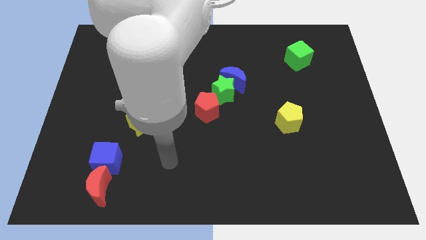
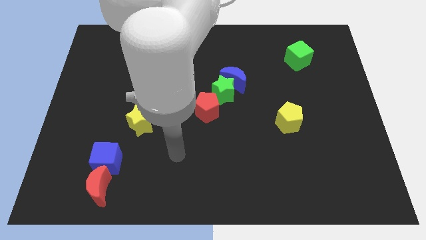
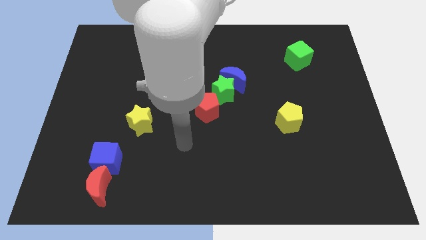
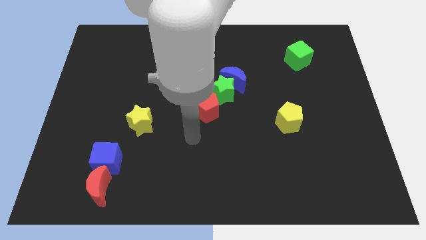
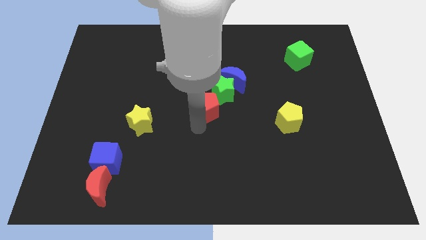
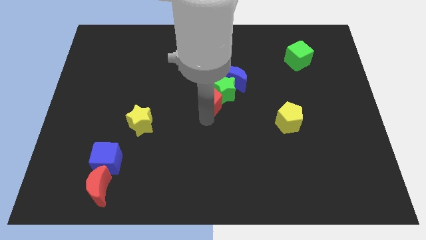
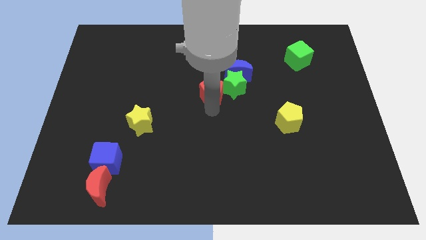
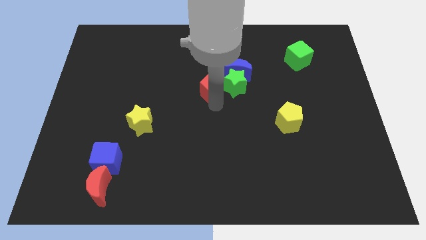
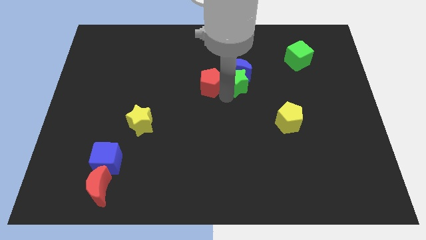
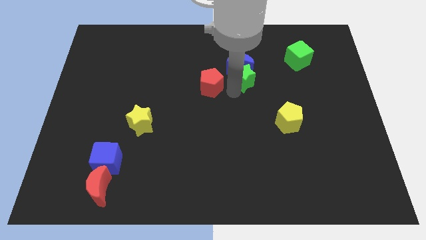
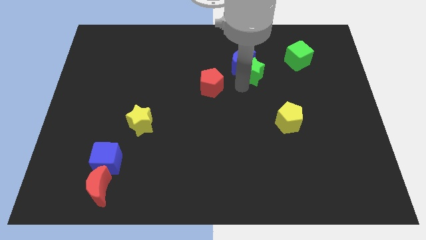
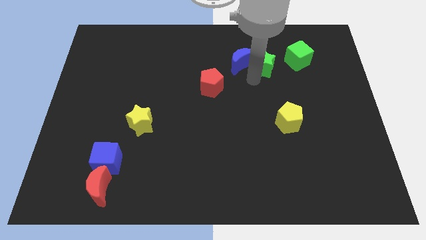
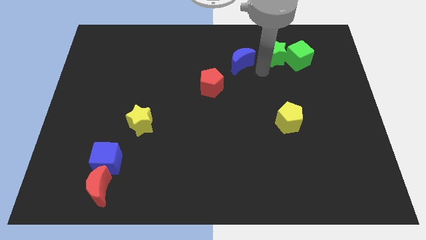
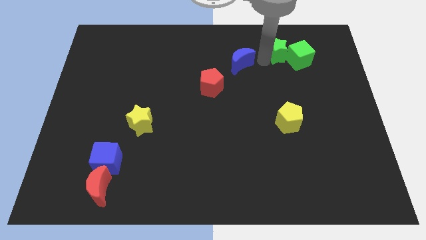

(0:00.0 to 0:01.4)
separate the blue moon from the green star

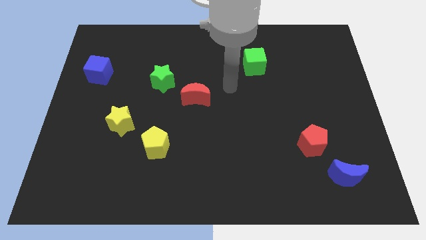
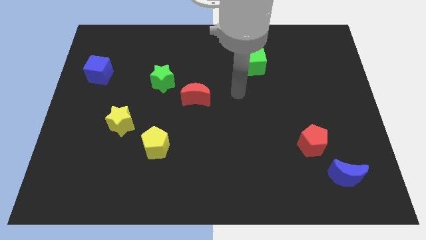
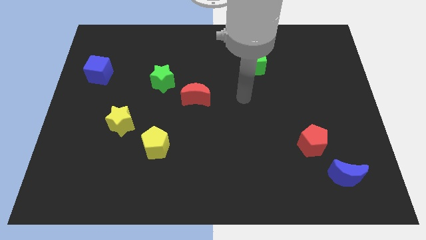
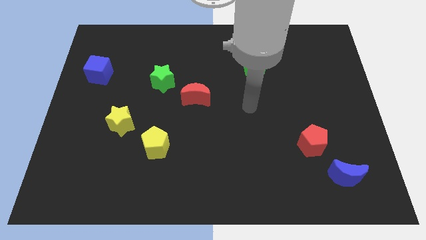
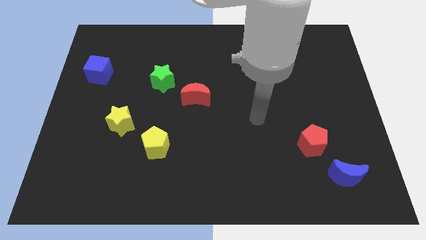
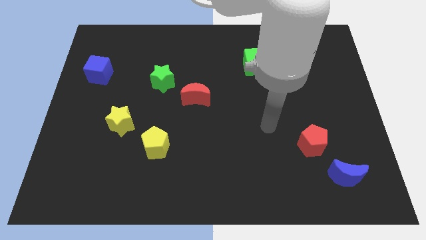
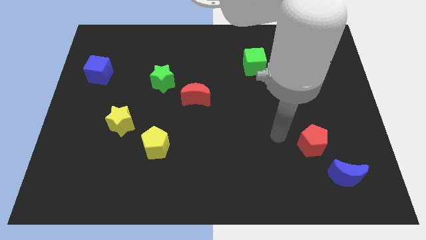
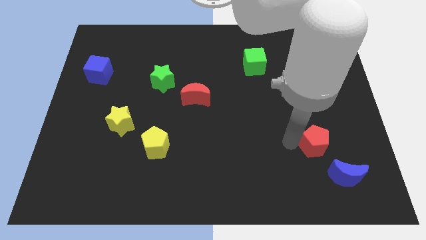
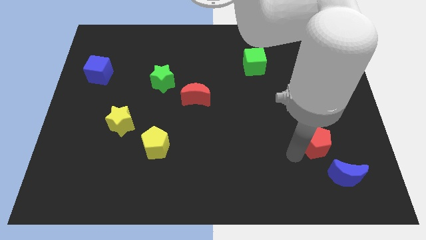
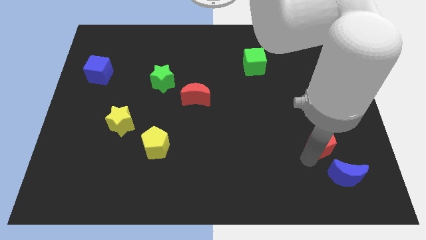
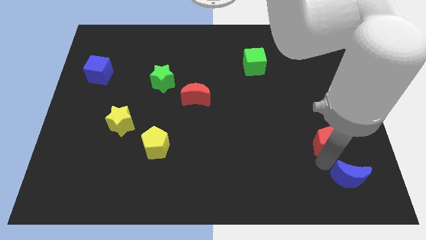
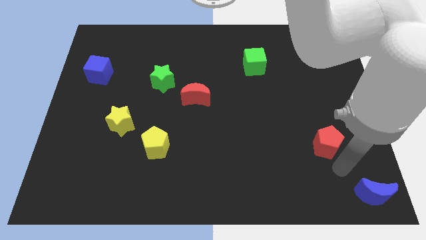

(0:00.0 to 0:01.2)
pull the red pentagon apart from the blue moon

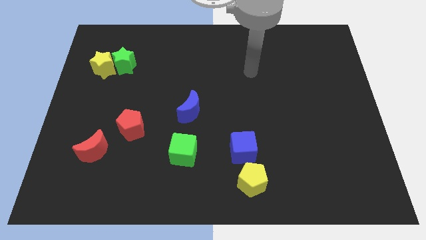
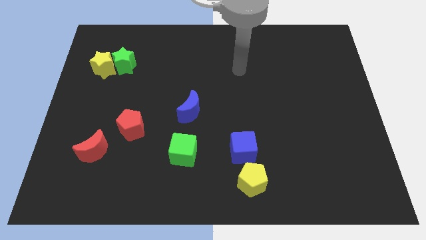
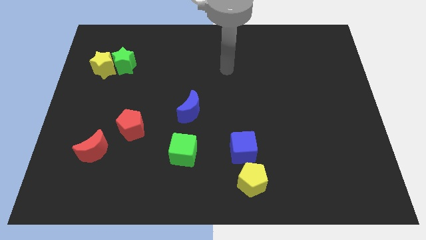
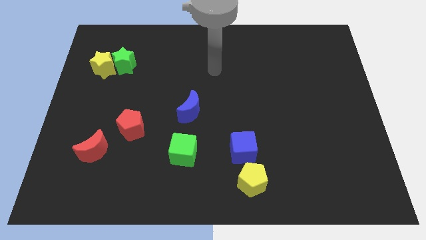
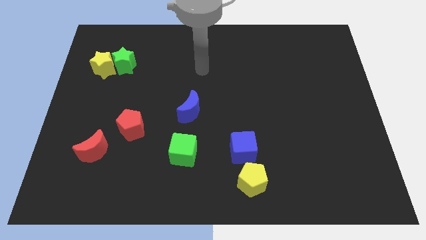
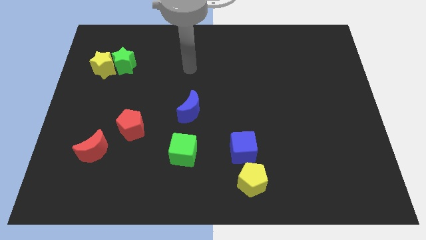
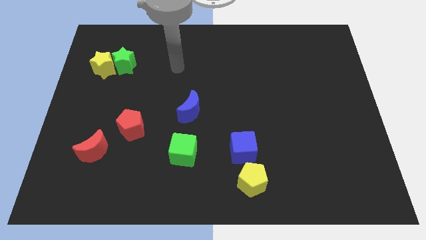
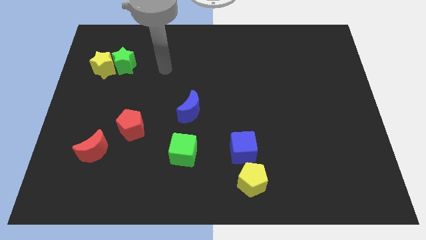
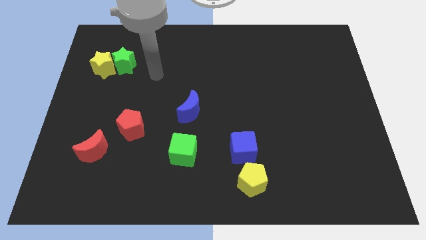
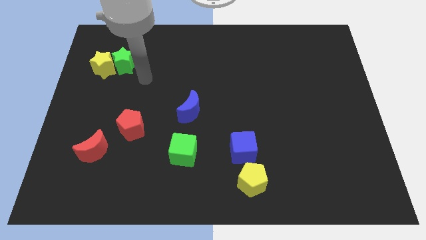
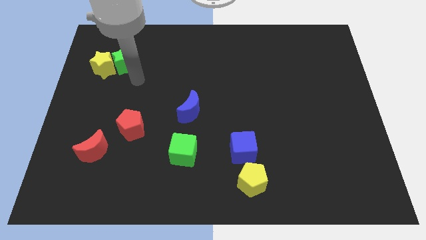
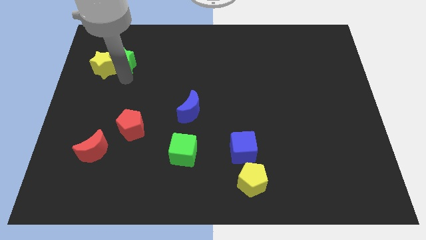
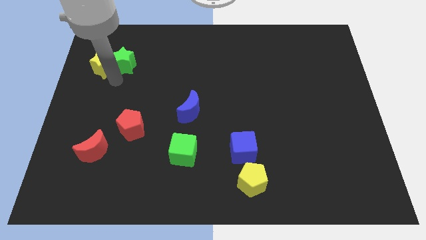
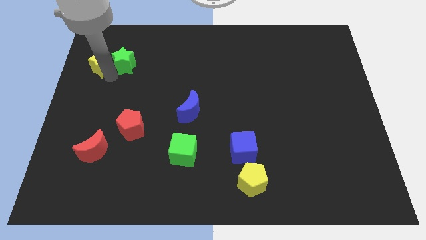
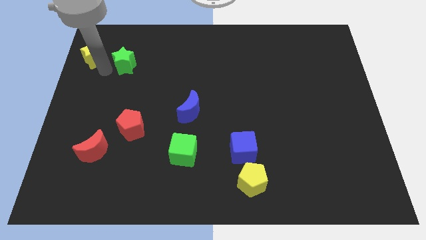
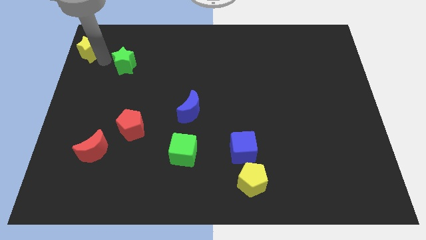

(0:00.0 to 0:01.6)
pull the green star apart from the yellow star

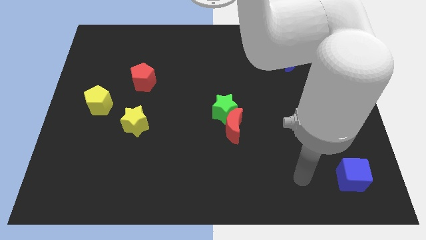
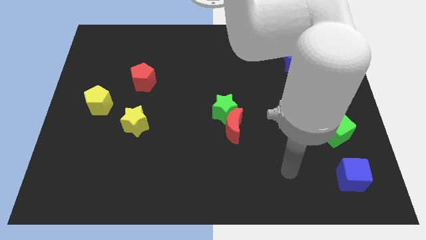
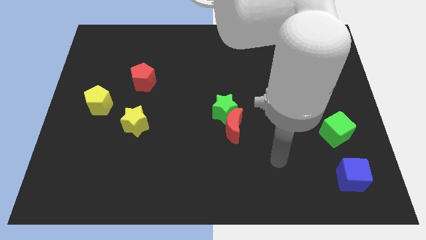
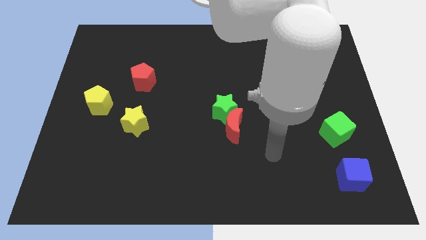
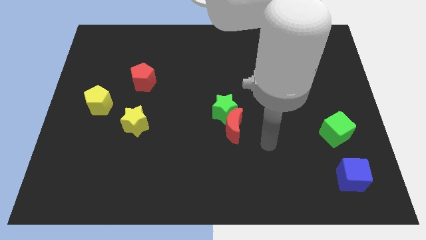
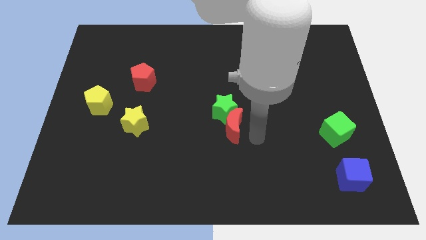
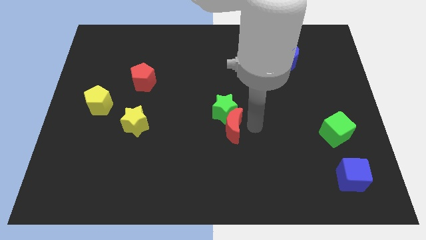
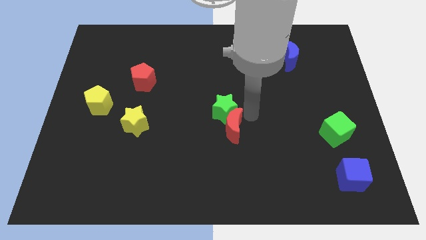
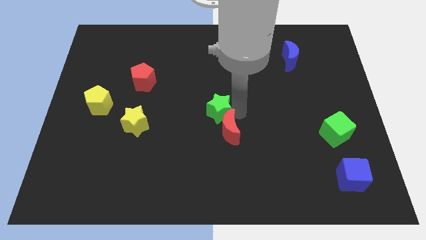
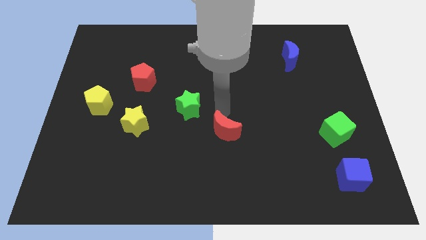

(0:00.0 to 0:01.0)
pull the red moon apart from the green star

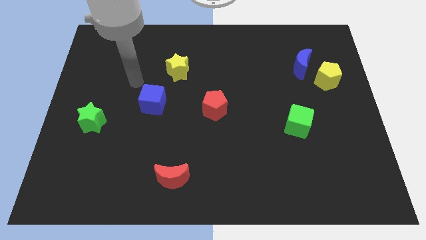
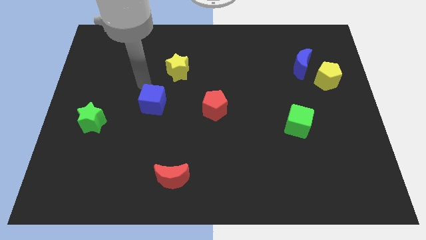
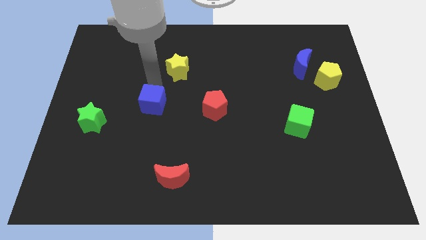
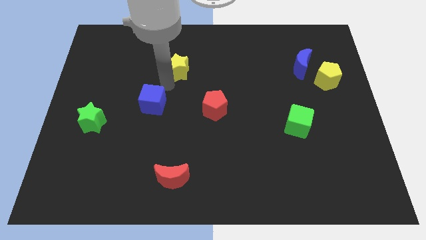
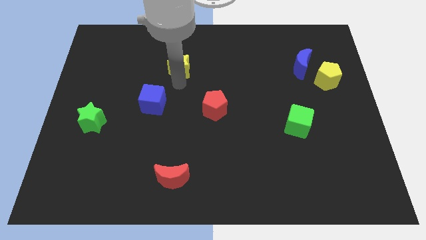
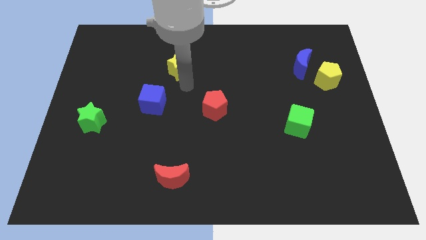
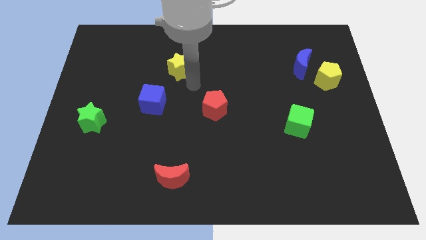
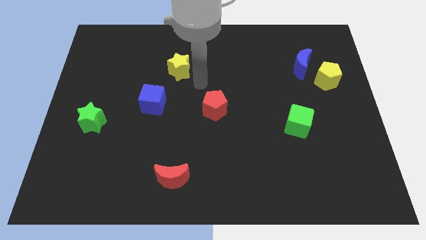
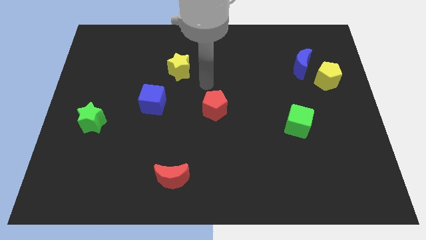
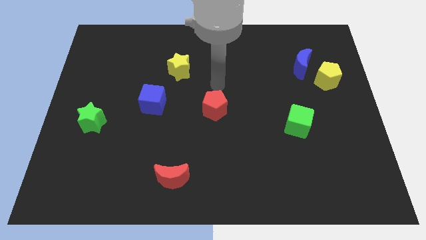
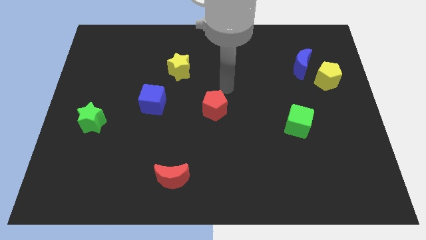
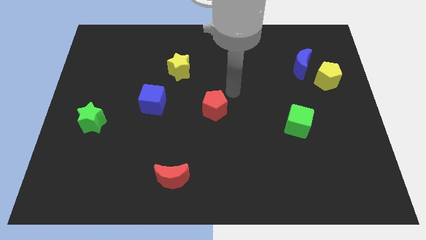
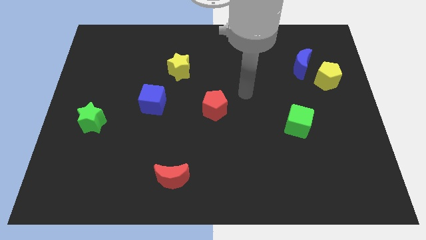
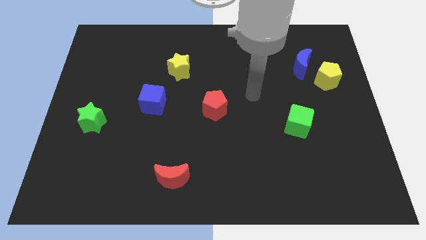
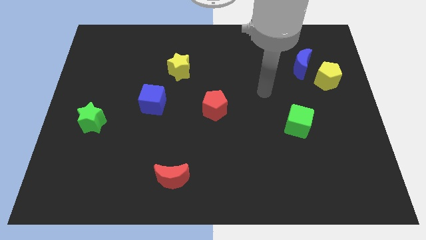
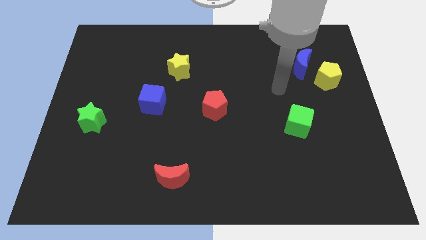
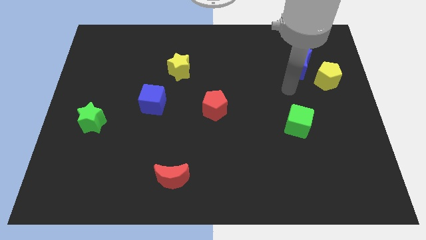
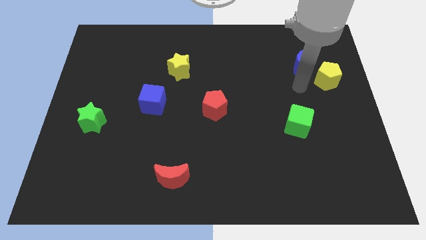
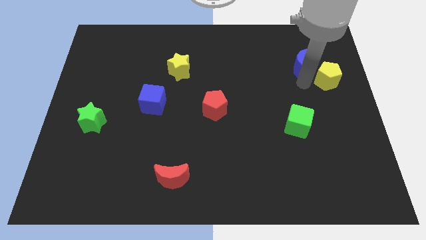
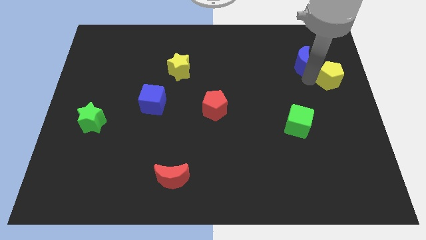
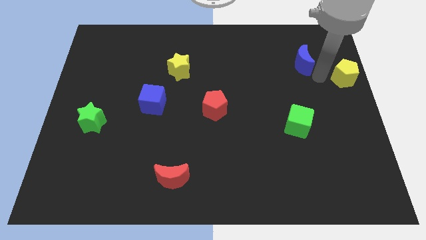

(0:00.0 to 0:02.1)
move the blue moon away from the yellow pentagon

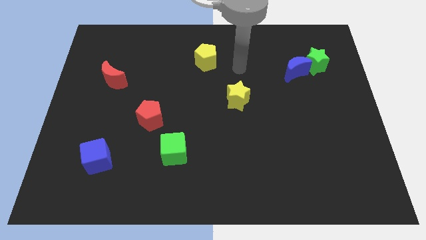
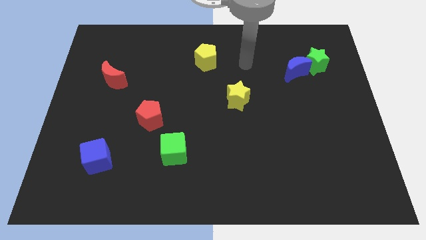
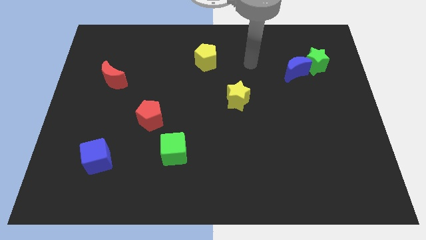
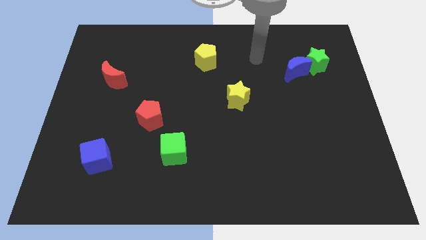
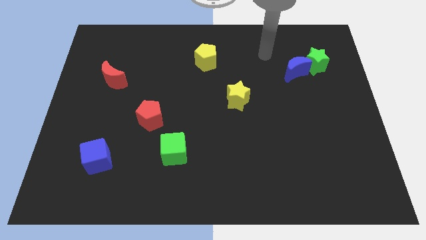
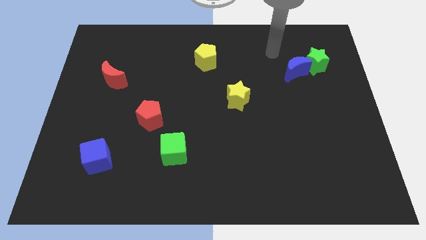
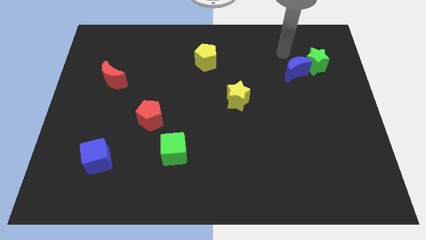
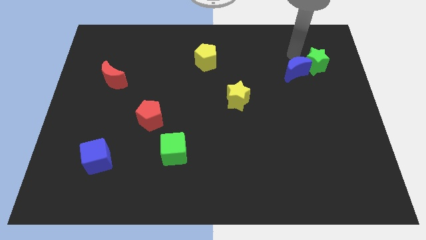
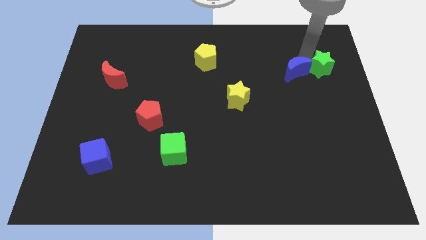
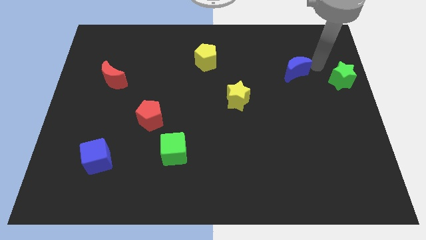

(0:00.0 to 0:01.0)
move the blue moon away from the green star

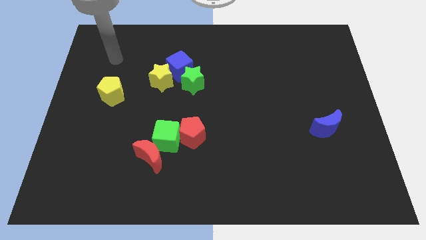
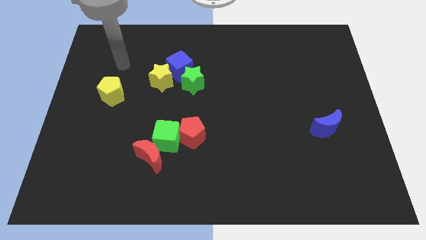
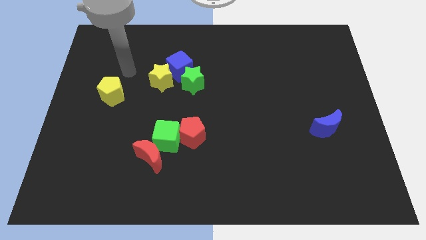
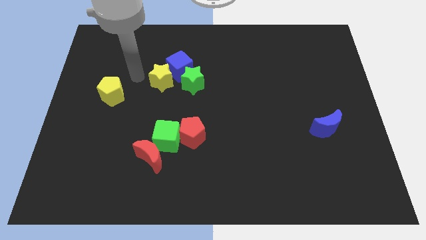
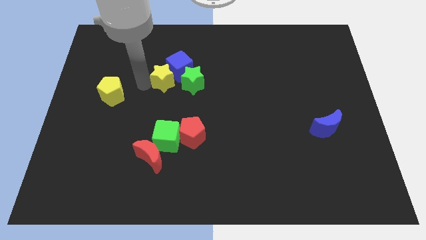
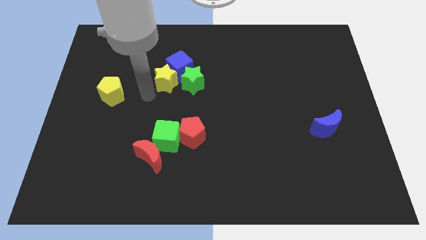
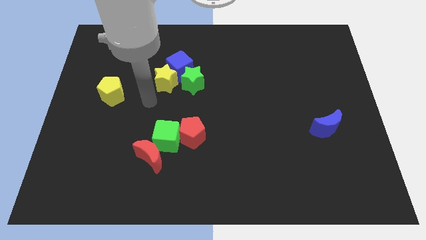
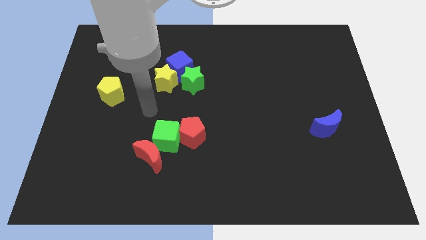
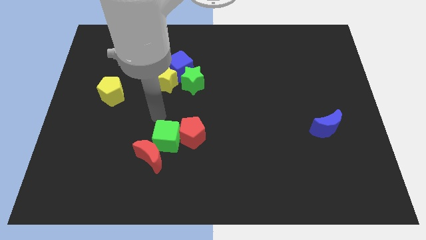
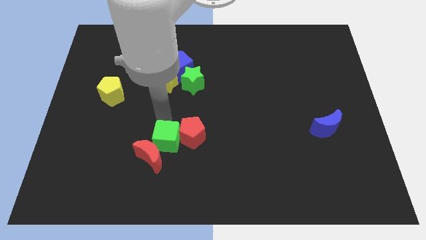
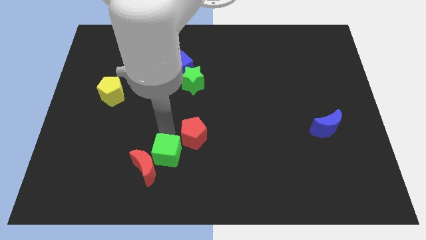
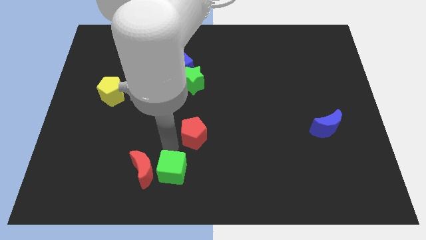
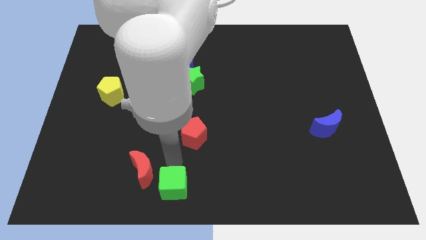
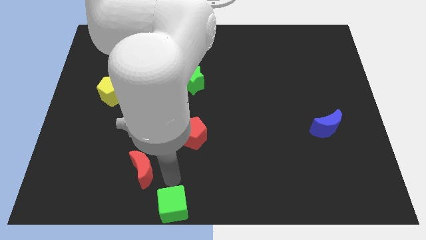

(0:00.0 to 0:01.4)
pull the red moon apart from the green cube
